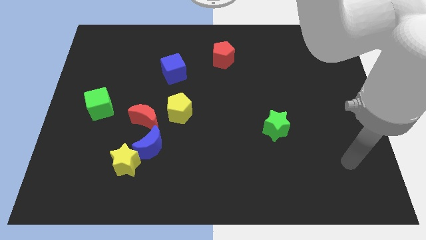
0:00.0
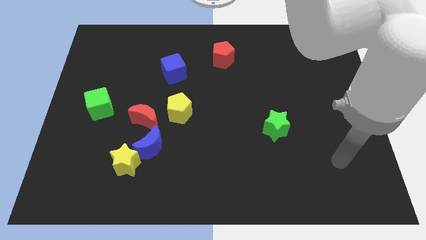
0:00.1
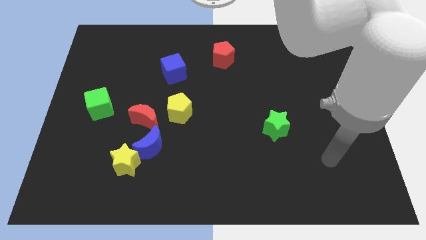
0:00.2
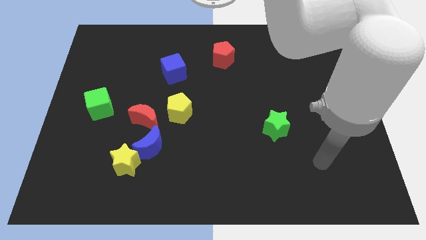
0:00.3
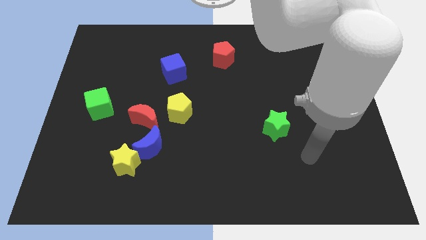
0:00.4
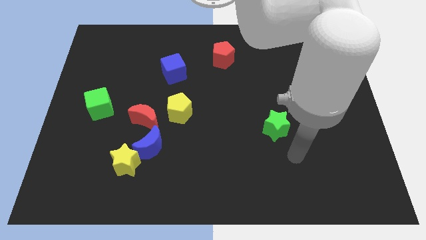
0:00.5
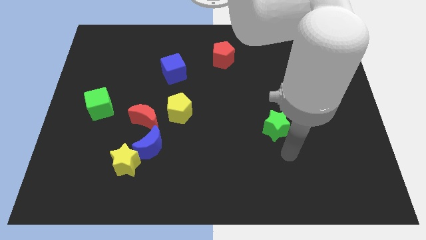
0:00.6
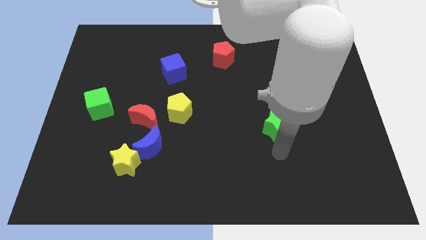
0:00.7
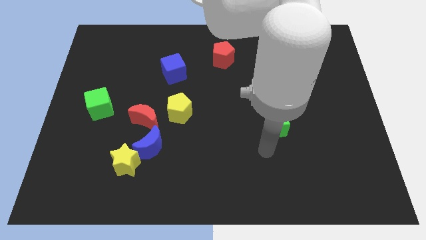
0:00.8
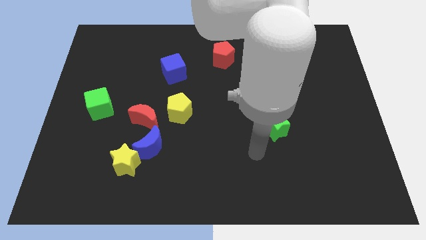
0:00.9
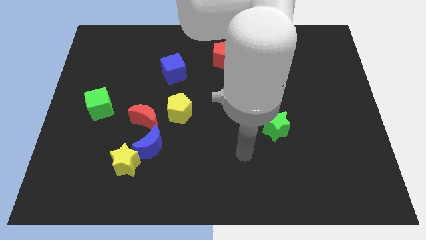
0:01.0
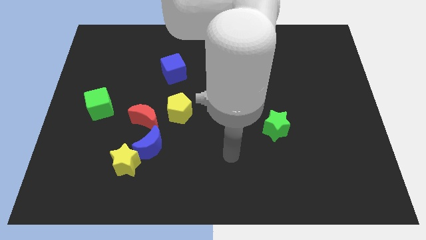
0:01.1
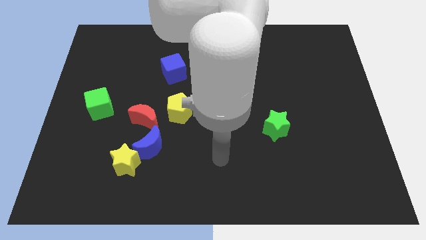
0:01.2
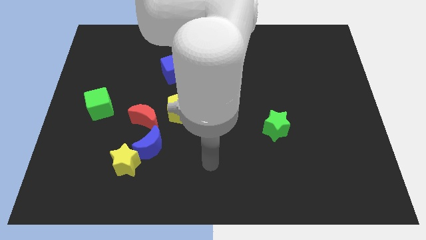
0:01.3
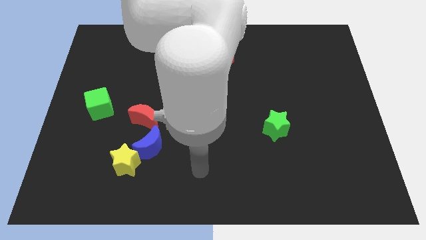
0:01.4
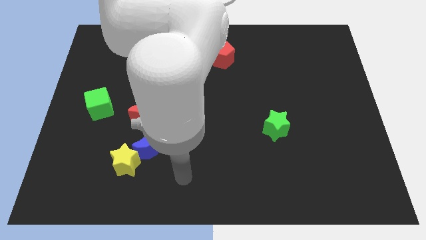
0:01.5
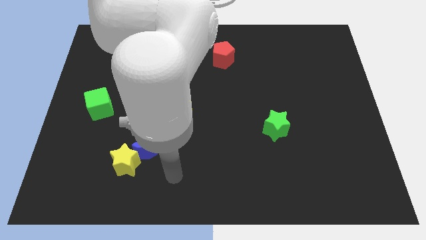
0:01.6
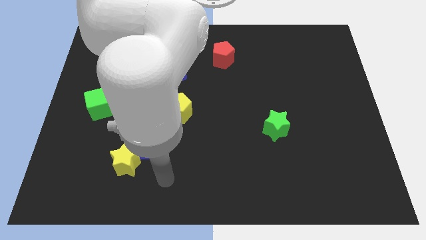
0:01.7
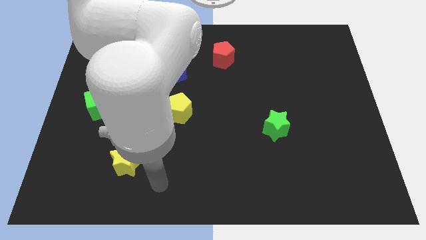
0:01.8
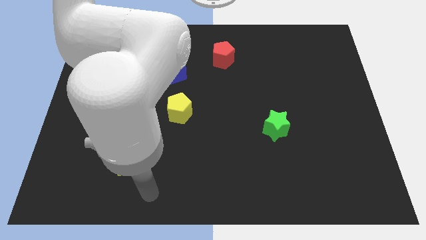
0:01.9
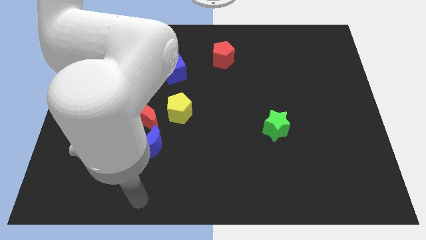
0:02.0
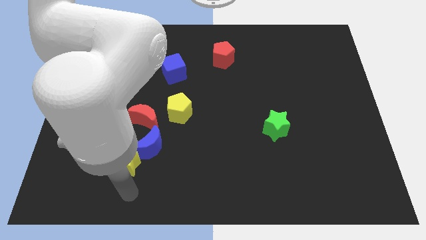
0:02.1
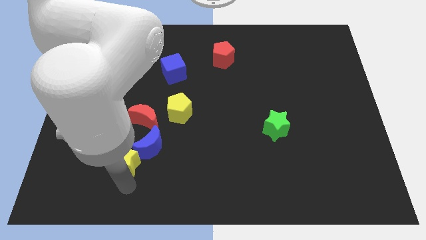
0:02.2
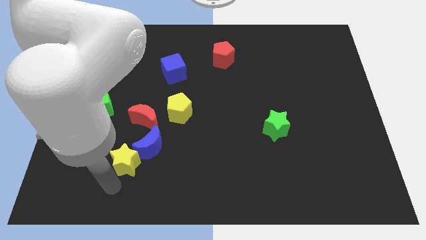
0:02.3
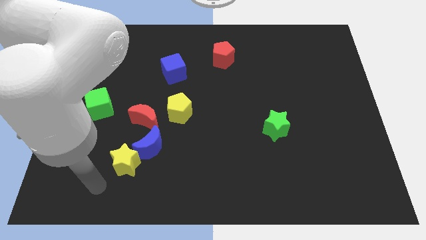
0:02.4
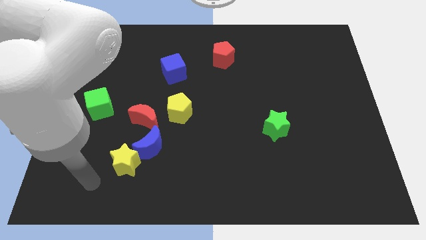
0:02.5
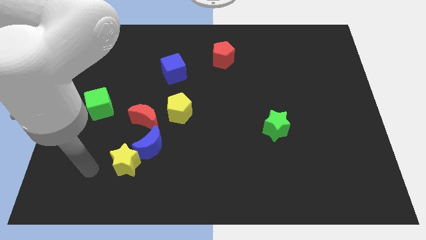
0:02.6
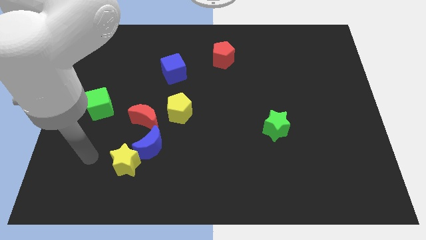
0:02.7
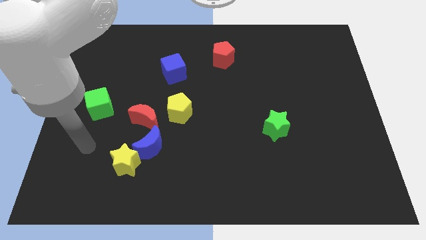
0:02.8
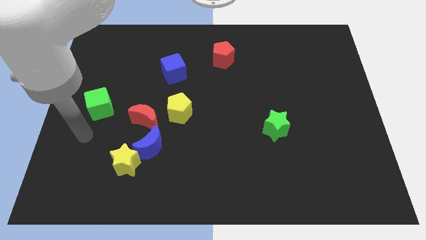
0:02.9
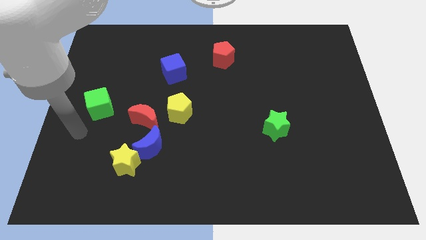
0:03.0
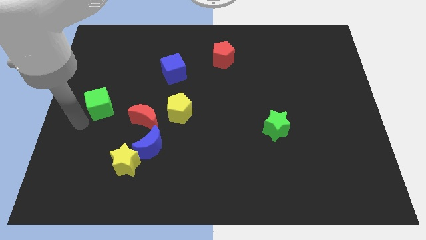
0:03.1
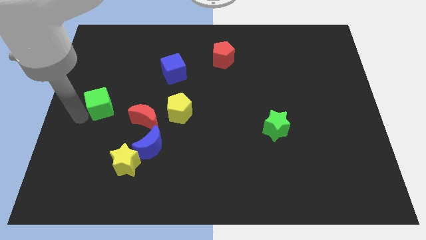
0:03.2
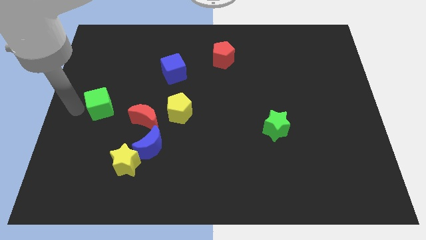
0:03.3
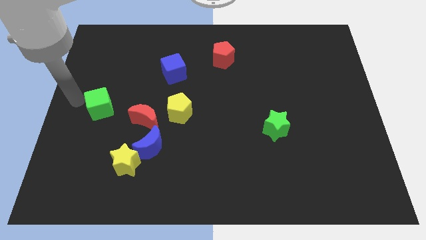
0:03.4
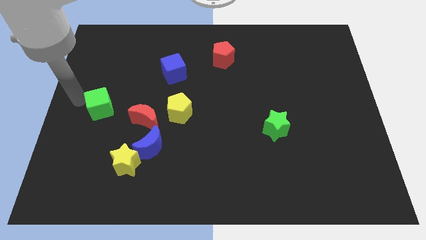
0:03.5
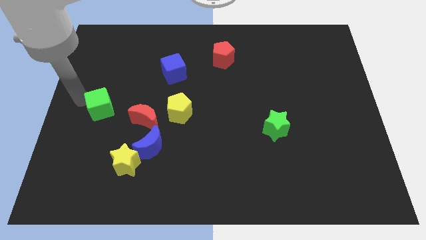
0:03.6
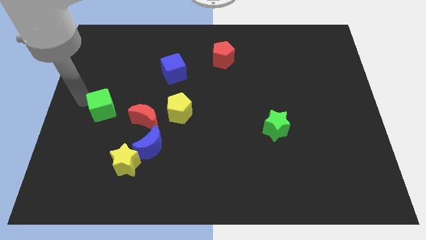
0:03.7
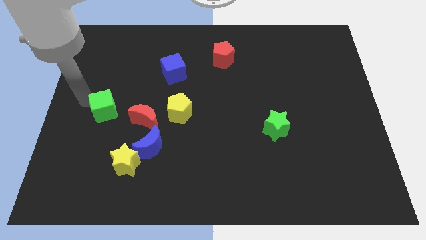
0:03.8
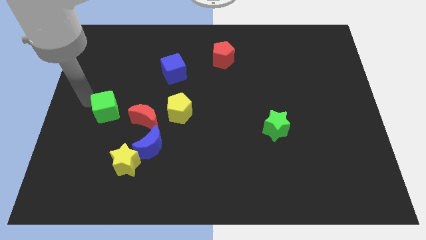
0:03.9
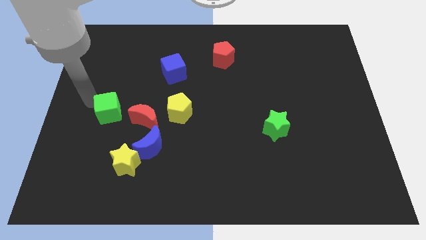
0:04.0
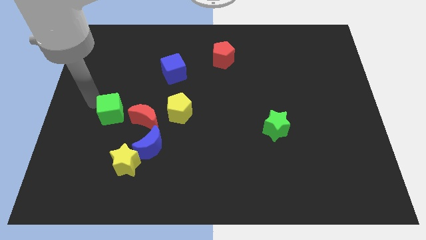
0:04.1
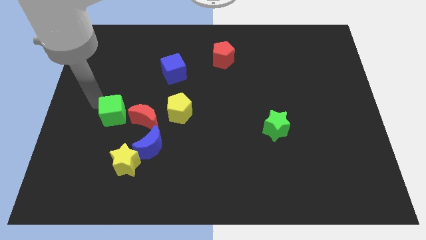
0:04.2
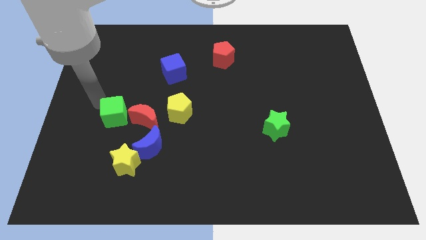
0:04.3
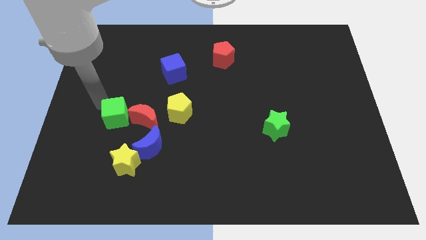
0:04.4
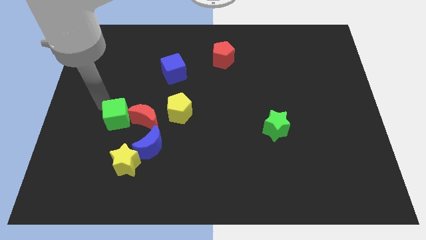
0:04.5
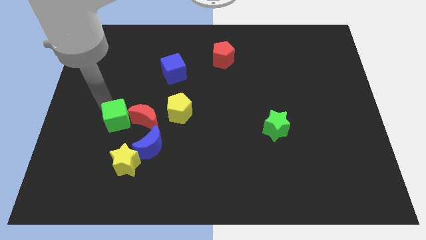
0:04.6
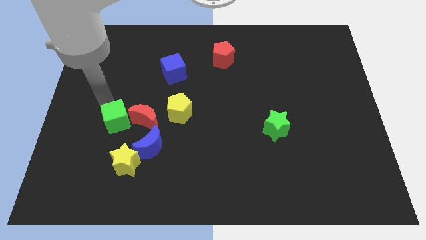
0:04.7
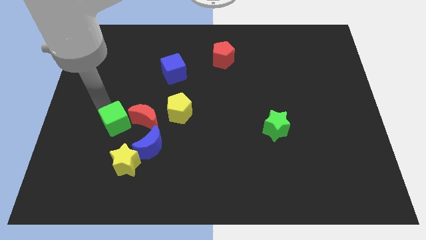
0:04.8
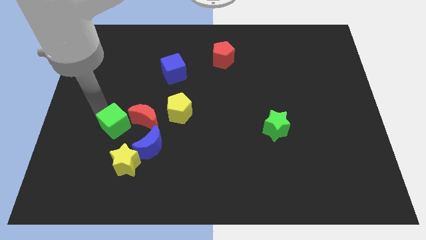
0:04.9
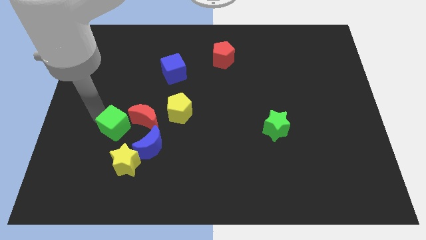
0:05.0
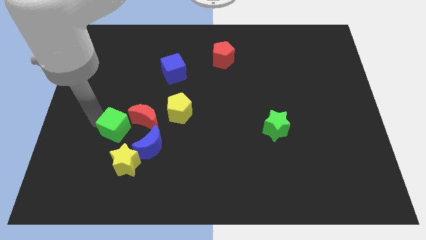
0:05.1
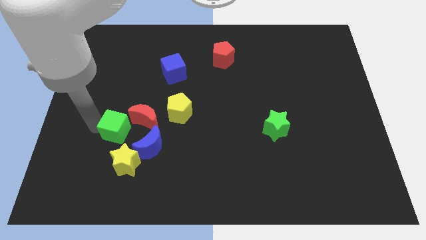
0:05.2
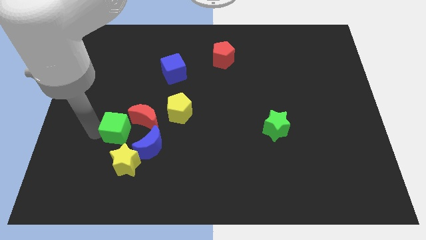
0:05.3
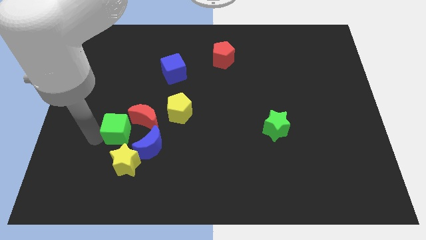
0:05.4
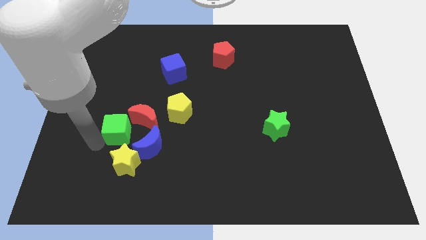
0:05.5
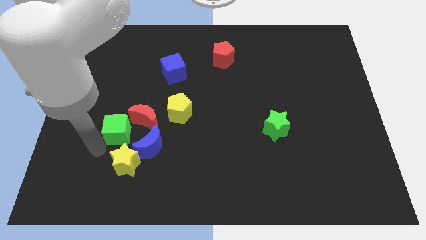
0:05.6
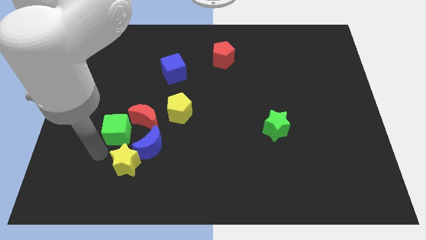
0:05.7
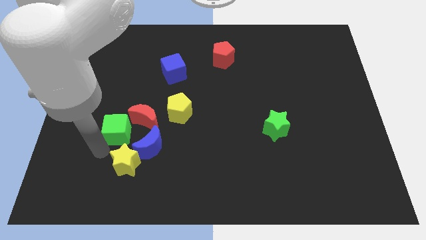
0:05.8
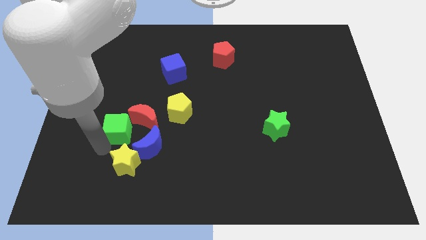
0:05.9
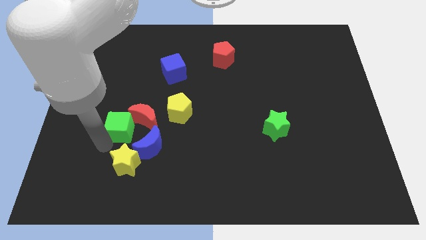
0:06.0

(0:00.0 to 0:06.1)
move the green cube to the red moon
